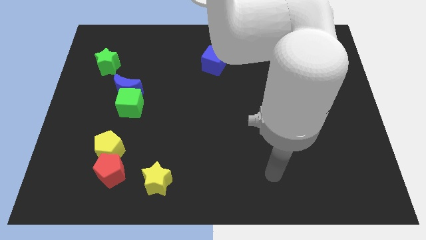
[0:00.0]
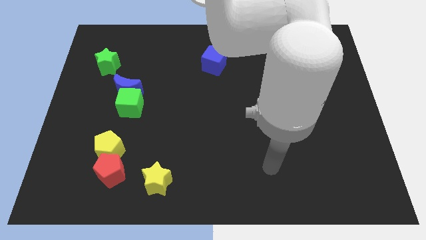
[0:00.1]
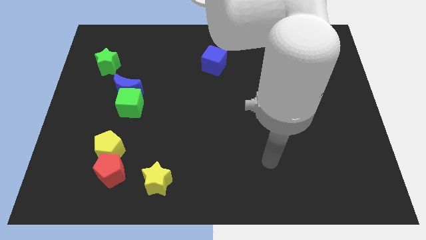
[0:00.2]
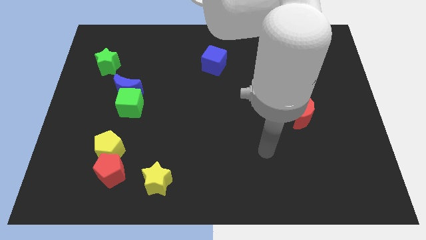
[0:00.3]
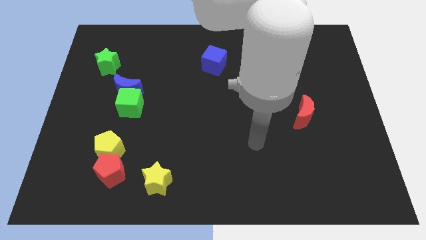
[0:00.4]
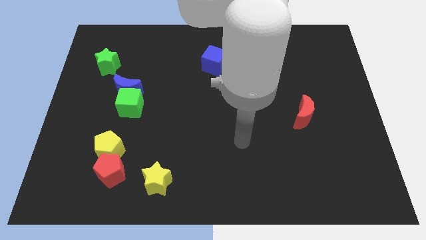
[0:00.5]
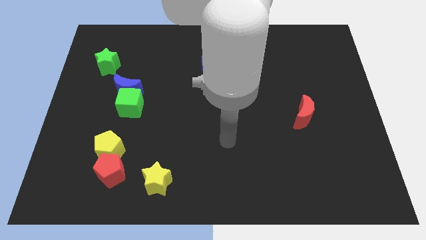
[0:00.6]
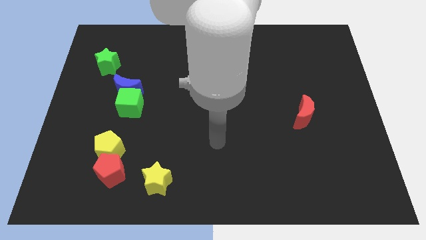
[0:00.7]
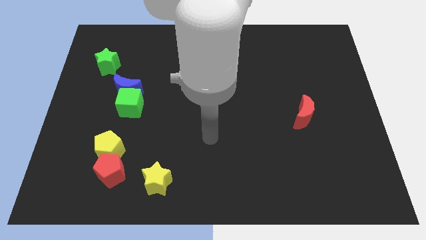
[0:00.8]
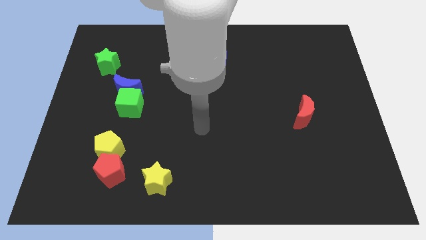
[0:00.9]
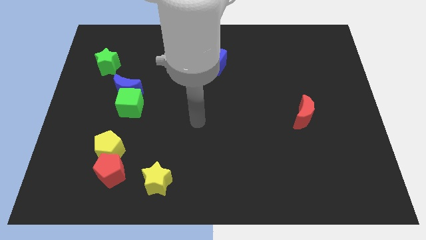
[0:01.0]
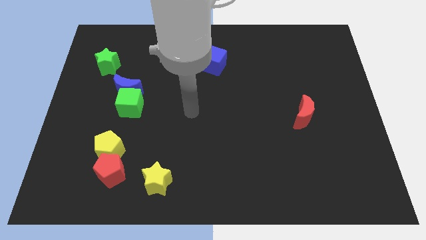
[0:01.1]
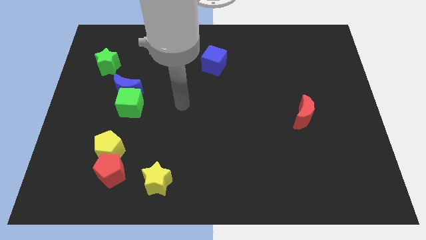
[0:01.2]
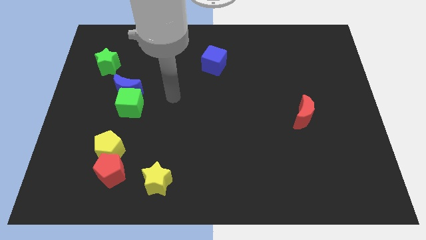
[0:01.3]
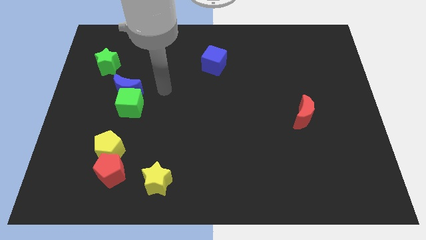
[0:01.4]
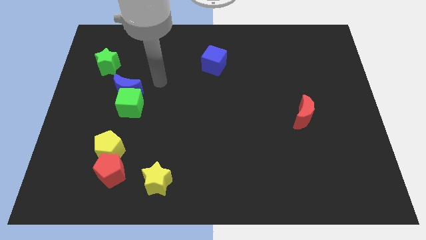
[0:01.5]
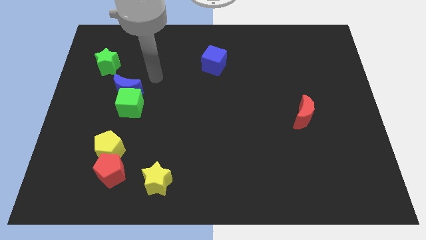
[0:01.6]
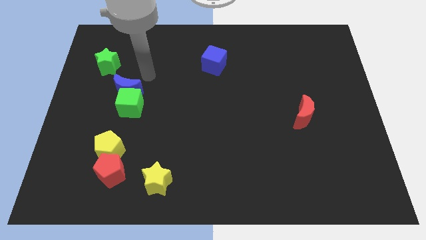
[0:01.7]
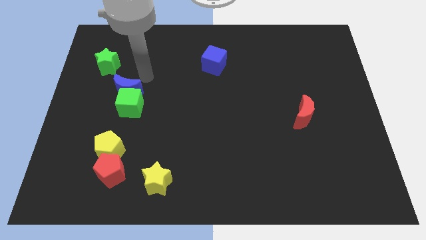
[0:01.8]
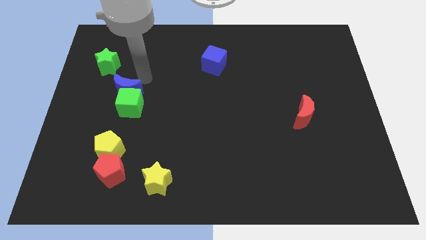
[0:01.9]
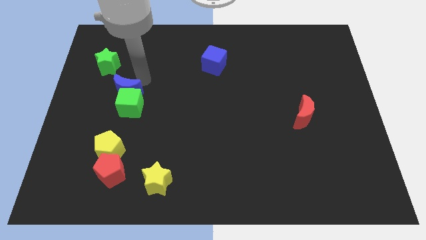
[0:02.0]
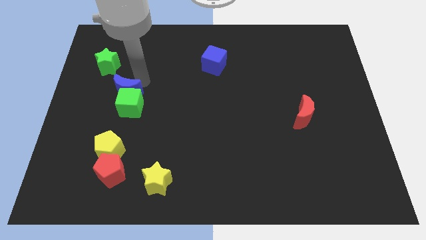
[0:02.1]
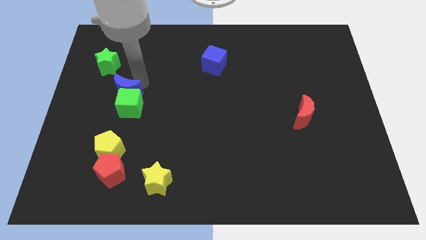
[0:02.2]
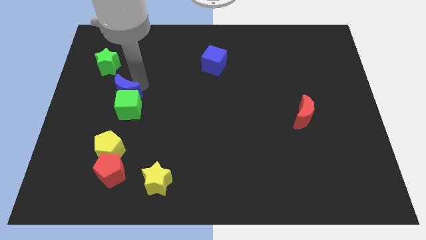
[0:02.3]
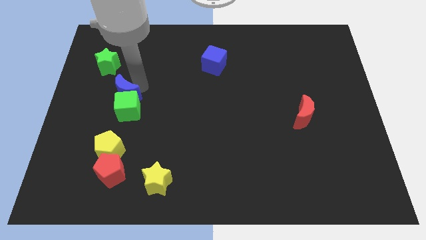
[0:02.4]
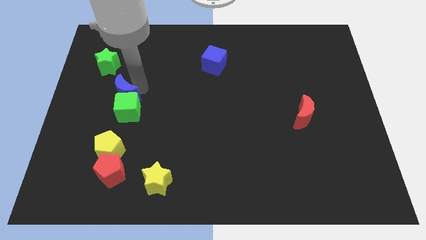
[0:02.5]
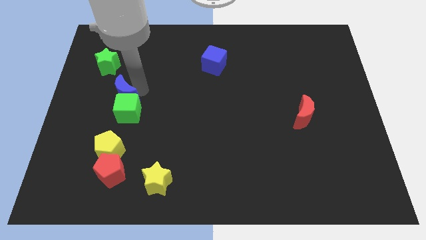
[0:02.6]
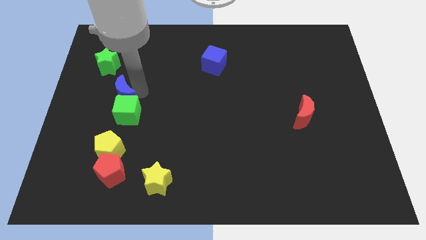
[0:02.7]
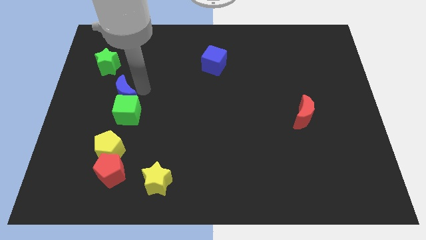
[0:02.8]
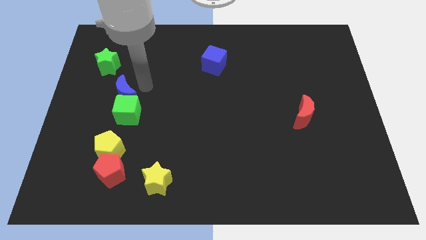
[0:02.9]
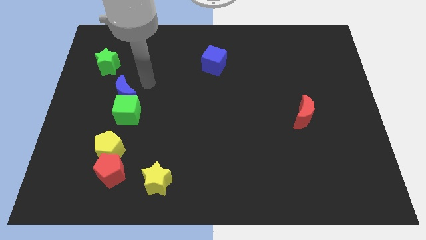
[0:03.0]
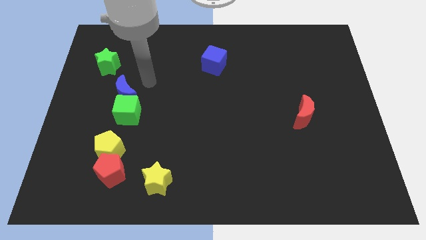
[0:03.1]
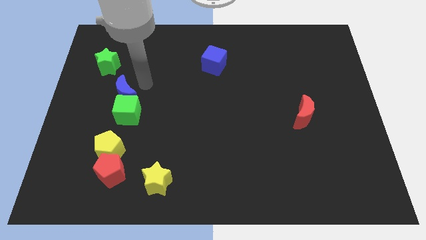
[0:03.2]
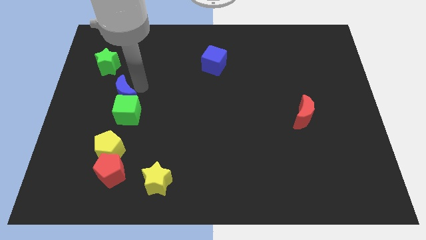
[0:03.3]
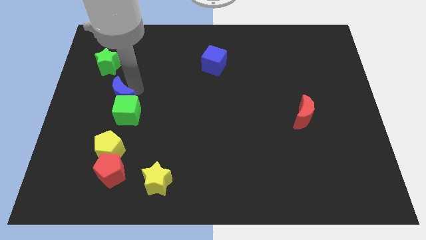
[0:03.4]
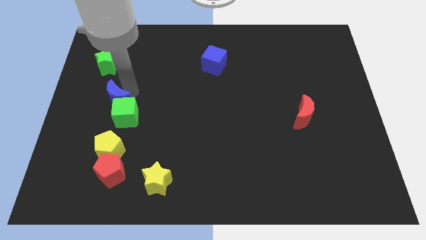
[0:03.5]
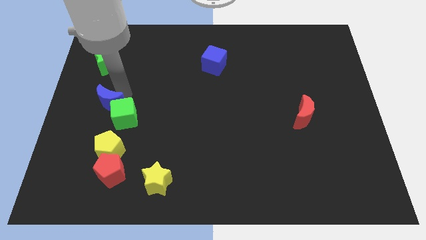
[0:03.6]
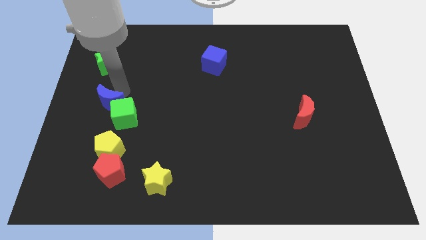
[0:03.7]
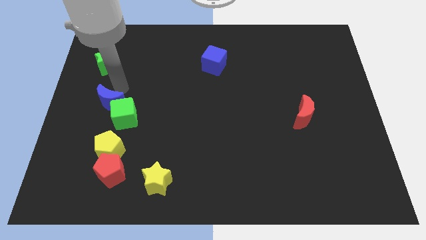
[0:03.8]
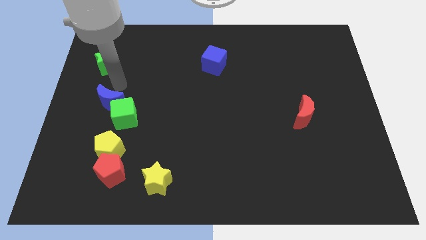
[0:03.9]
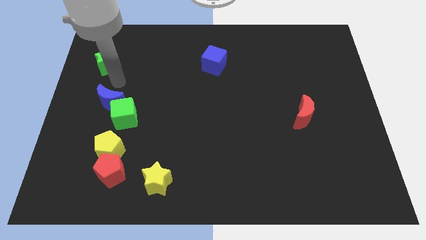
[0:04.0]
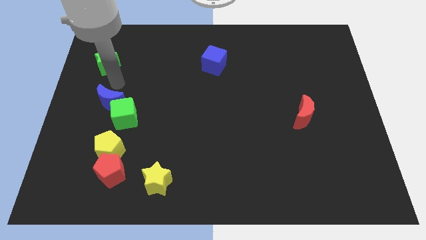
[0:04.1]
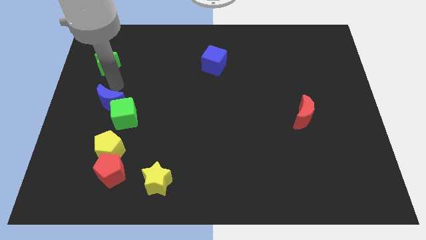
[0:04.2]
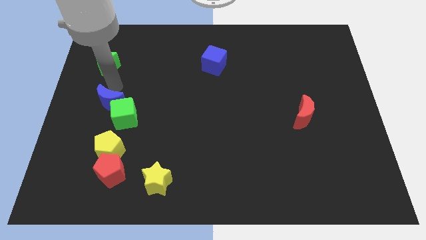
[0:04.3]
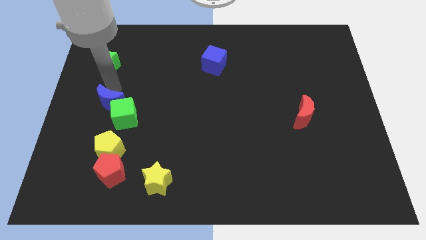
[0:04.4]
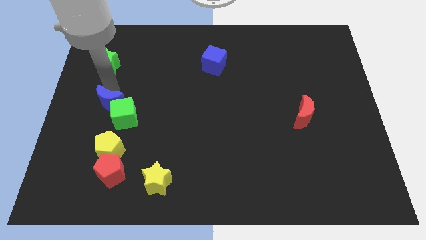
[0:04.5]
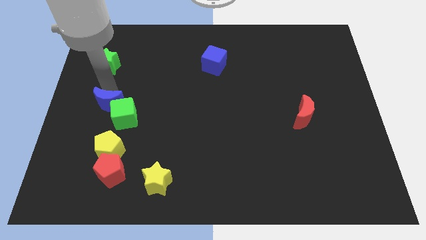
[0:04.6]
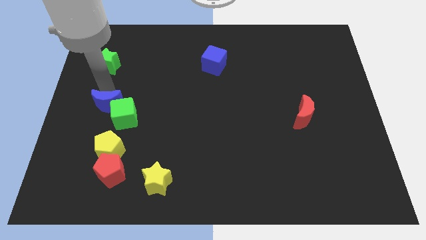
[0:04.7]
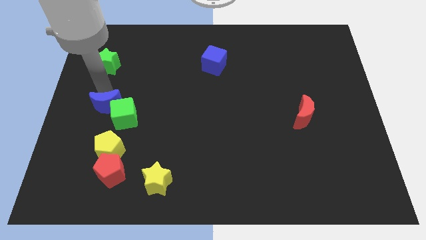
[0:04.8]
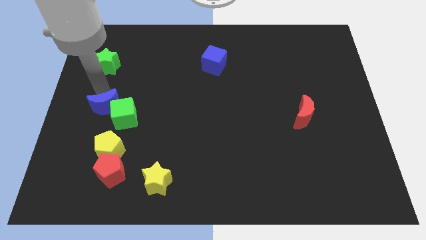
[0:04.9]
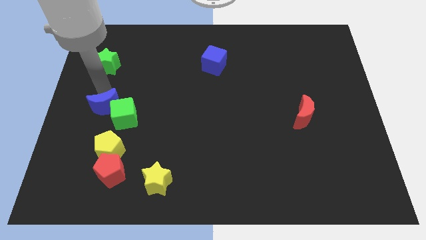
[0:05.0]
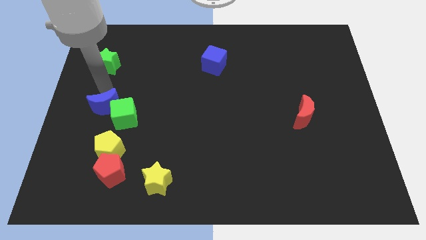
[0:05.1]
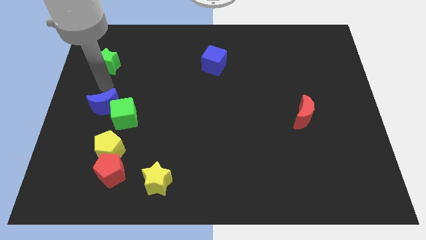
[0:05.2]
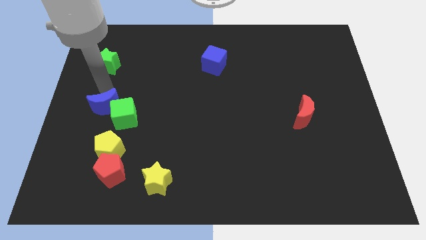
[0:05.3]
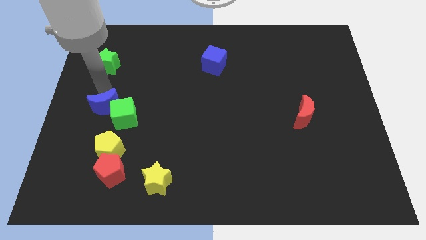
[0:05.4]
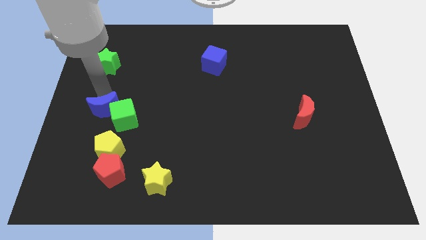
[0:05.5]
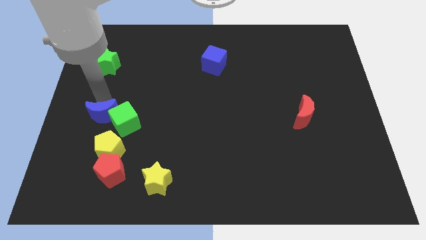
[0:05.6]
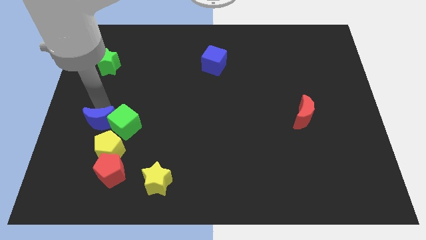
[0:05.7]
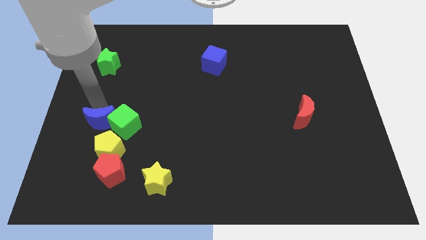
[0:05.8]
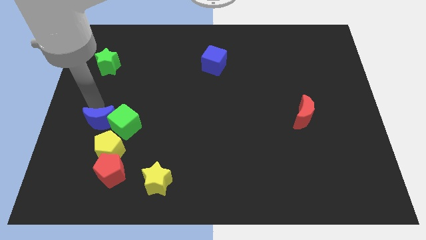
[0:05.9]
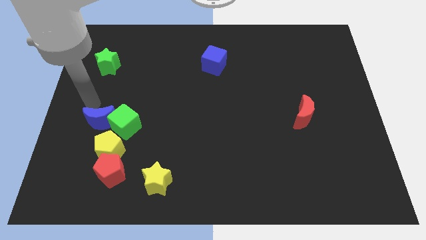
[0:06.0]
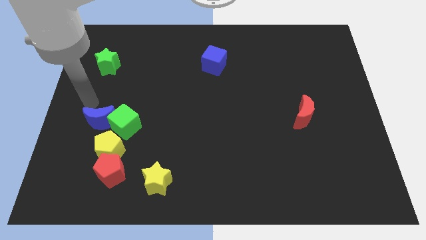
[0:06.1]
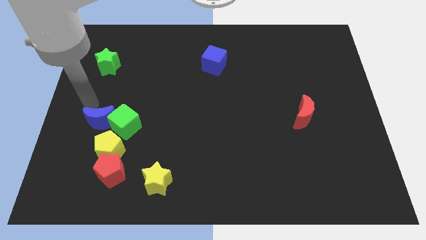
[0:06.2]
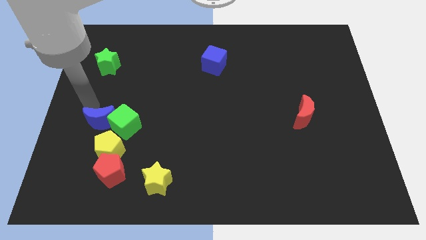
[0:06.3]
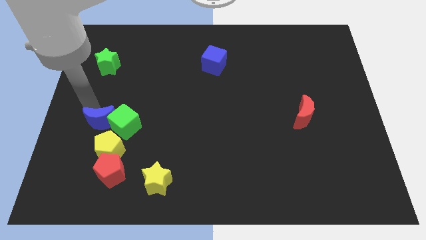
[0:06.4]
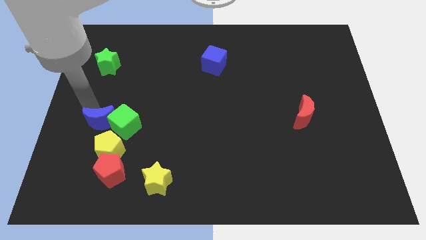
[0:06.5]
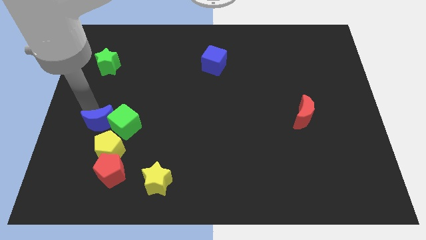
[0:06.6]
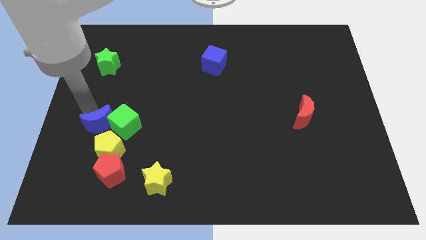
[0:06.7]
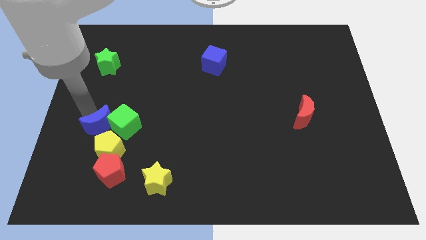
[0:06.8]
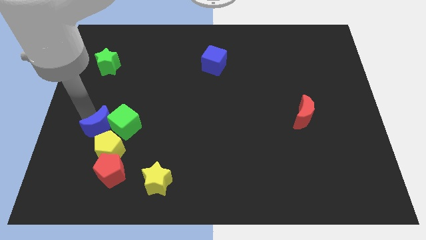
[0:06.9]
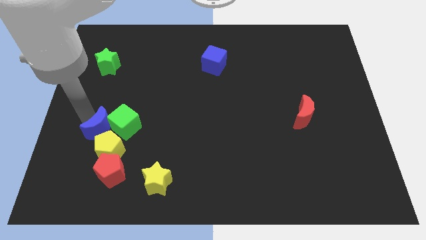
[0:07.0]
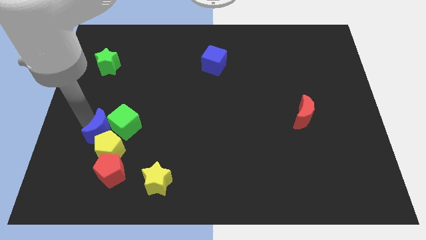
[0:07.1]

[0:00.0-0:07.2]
slide the blue moon to the yellow pentagon

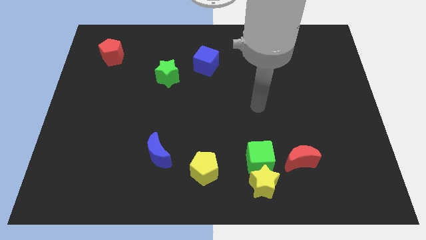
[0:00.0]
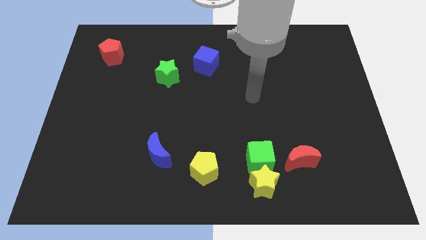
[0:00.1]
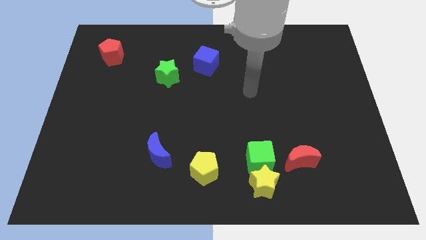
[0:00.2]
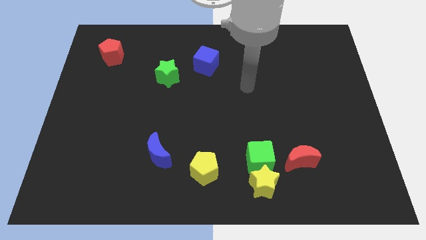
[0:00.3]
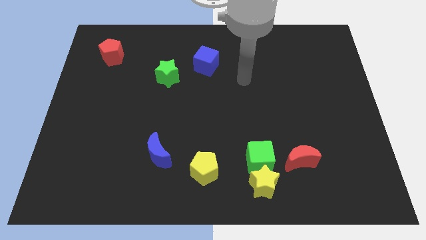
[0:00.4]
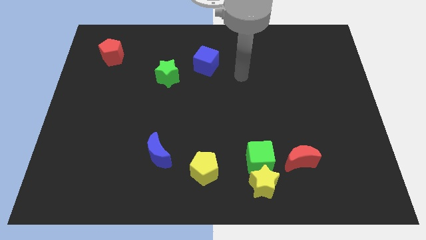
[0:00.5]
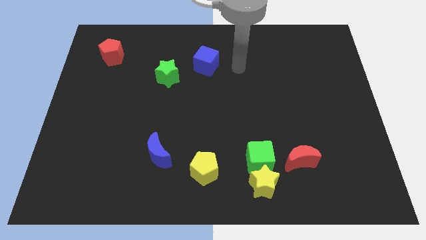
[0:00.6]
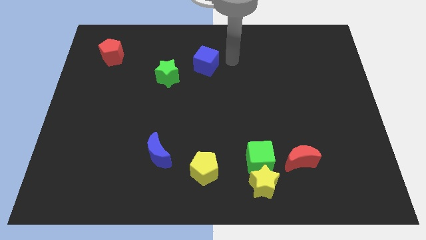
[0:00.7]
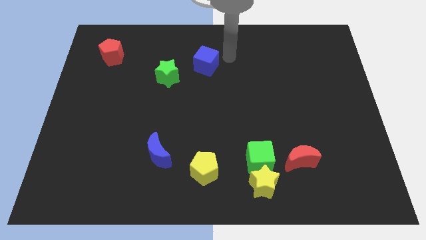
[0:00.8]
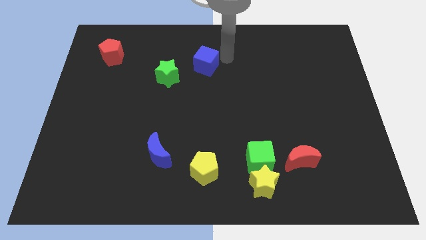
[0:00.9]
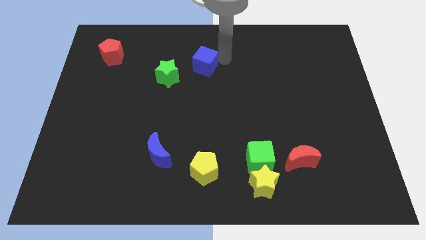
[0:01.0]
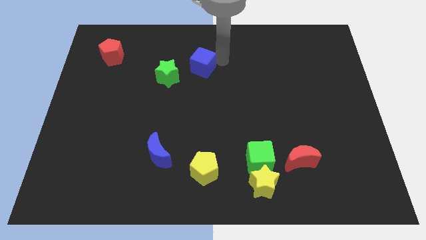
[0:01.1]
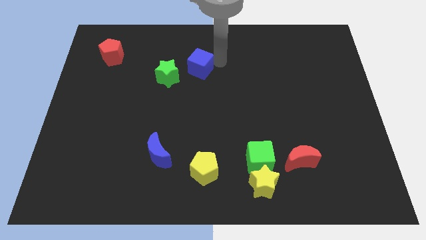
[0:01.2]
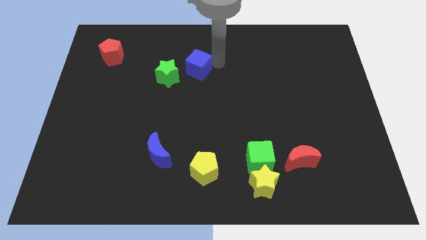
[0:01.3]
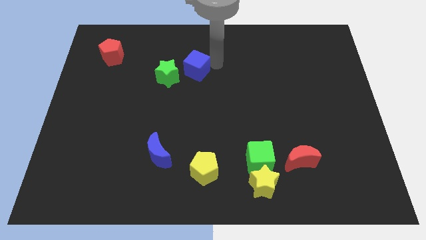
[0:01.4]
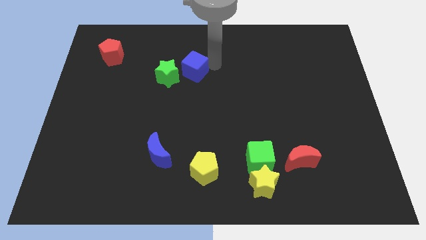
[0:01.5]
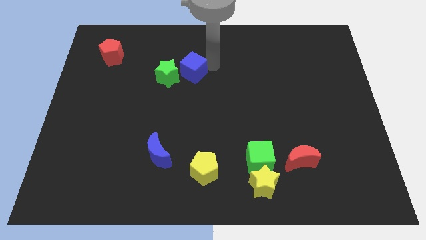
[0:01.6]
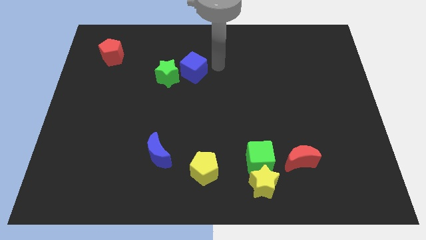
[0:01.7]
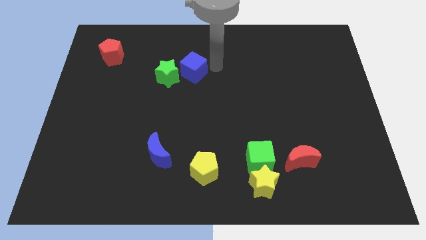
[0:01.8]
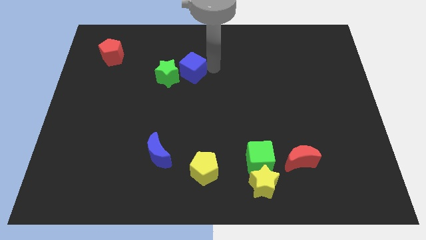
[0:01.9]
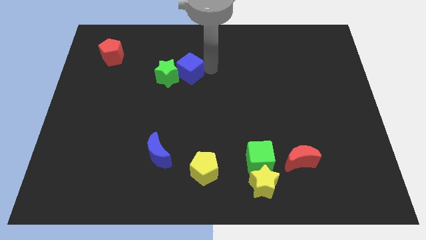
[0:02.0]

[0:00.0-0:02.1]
move the blue cube towards the green star
